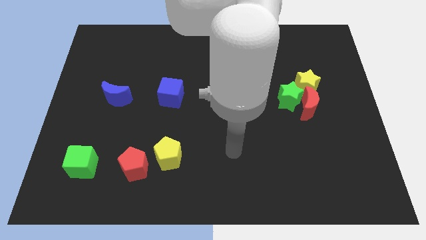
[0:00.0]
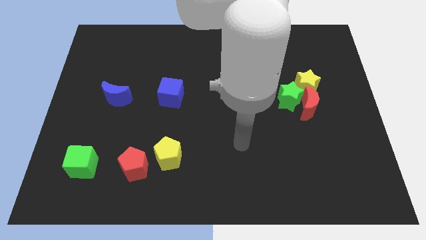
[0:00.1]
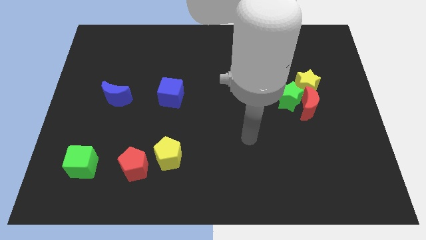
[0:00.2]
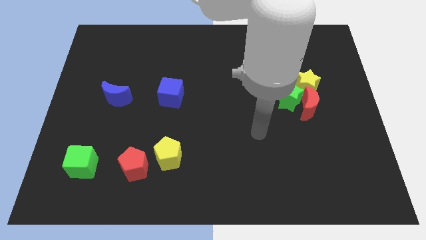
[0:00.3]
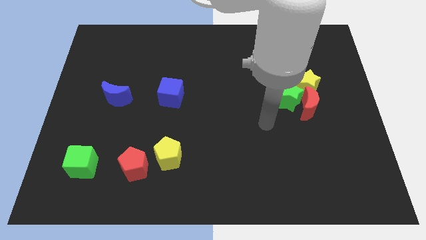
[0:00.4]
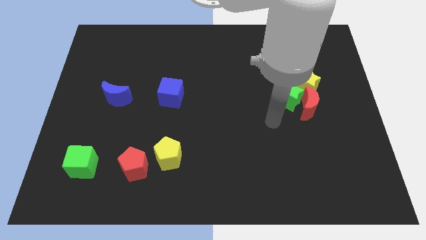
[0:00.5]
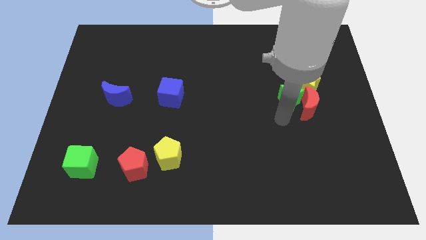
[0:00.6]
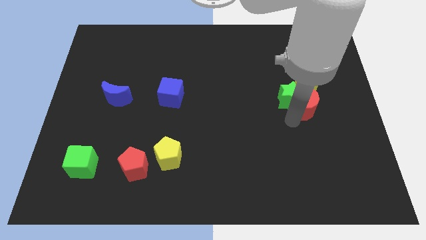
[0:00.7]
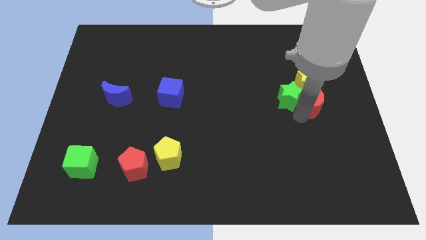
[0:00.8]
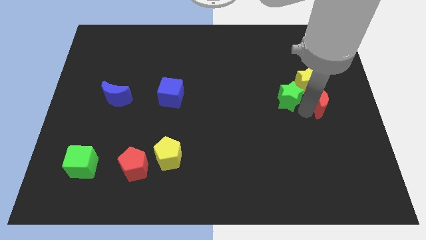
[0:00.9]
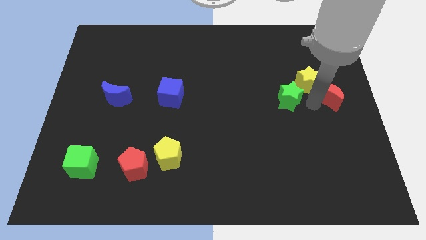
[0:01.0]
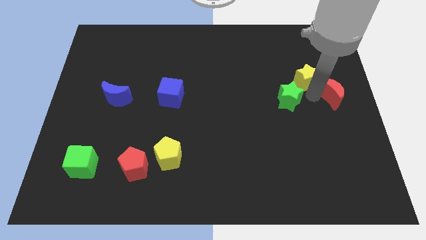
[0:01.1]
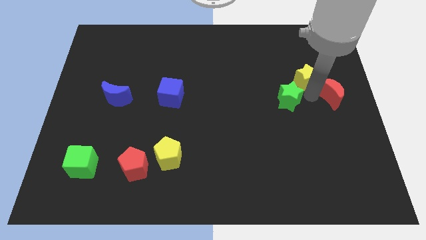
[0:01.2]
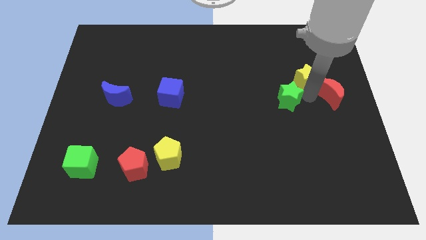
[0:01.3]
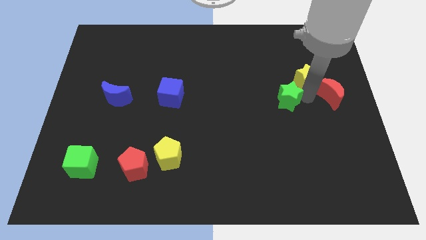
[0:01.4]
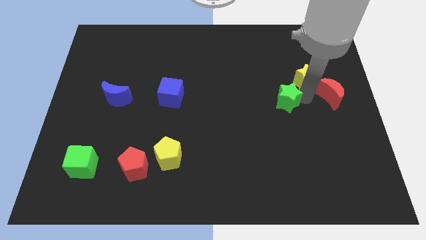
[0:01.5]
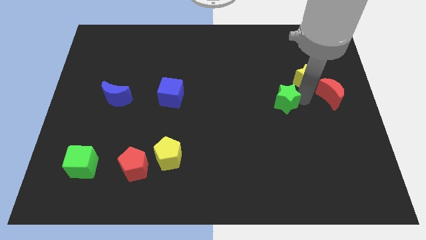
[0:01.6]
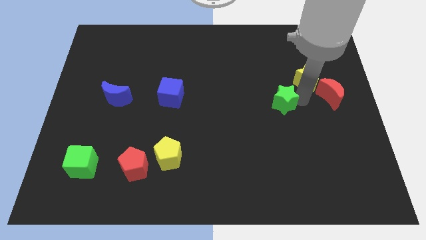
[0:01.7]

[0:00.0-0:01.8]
pull the green star apart from the red moon and yellow star

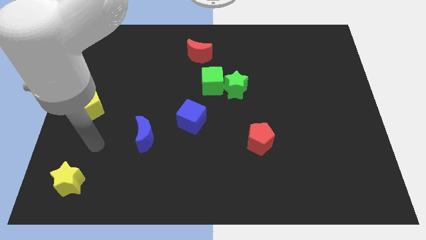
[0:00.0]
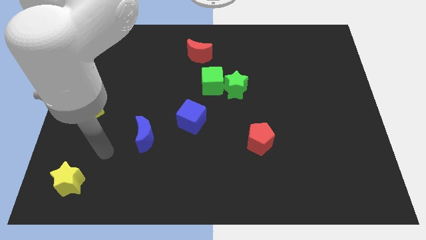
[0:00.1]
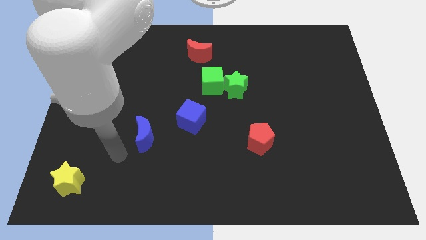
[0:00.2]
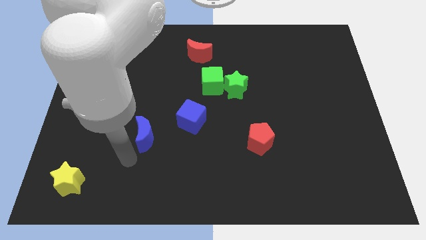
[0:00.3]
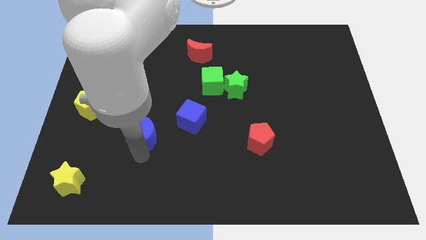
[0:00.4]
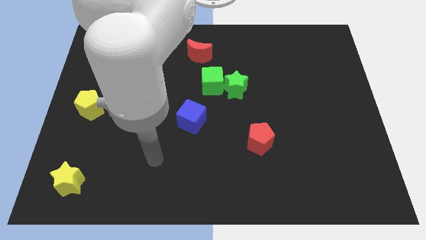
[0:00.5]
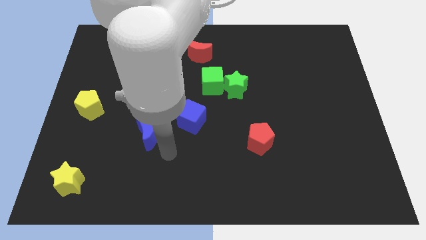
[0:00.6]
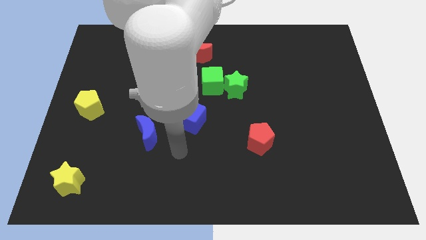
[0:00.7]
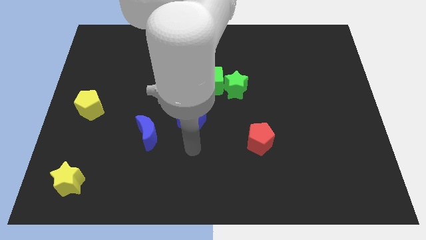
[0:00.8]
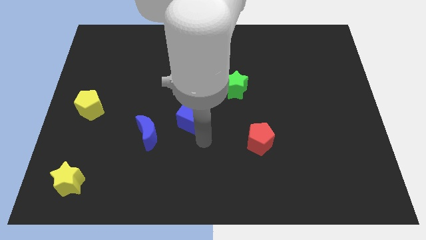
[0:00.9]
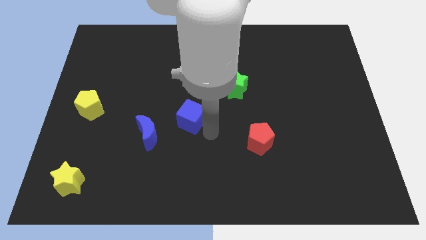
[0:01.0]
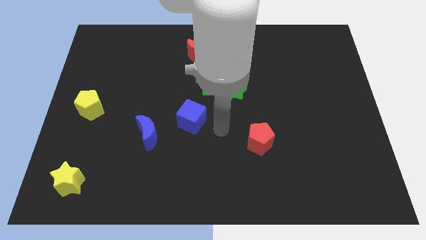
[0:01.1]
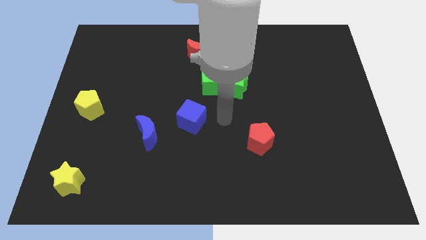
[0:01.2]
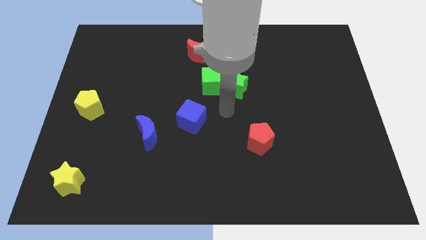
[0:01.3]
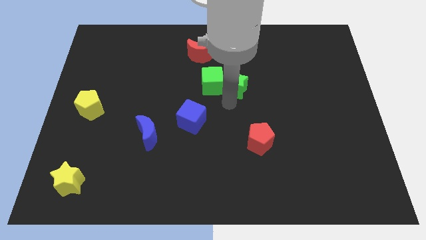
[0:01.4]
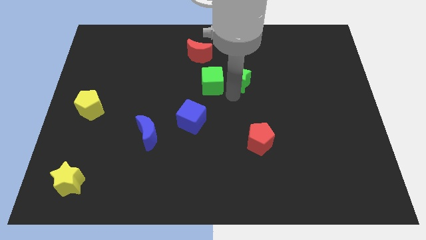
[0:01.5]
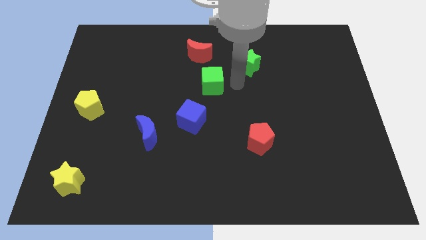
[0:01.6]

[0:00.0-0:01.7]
separate the green cube from the green star

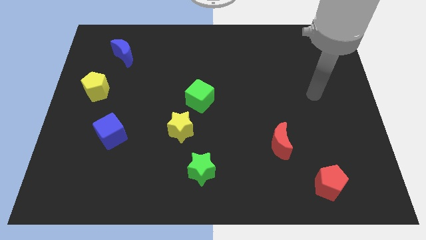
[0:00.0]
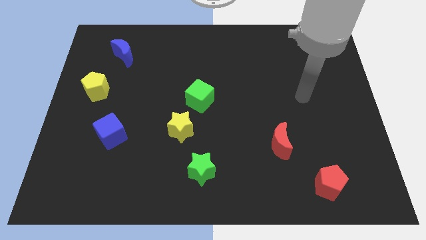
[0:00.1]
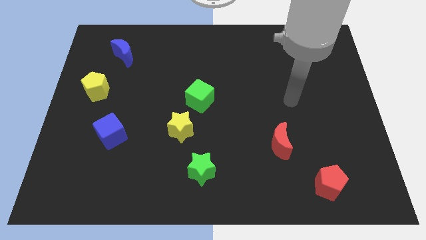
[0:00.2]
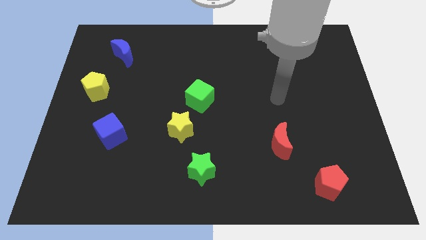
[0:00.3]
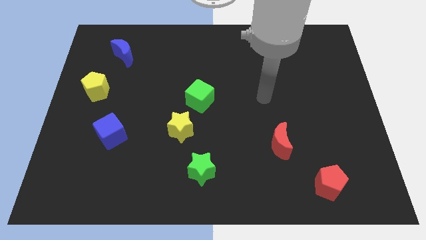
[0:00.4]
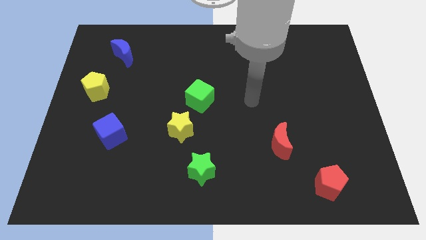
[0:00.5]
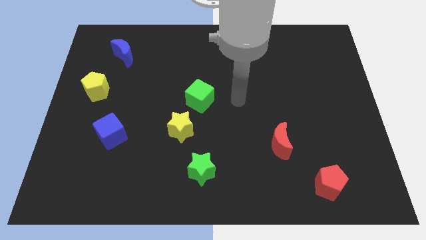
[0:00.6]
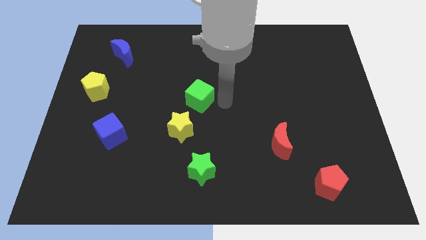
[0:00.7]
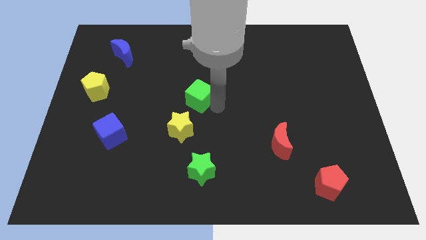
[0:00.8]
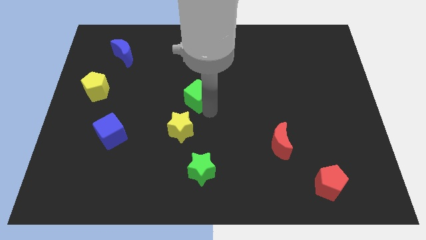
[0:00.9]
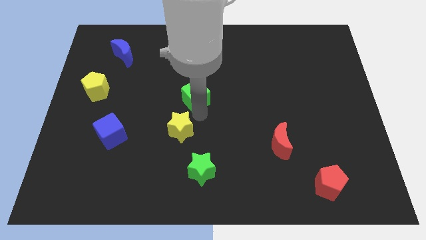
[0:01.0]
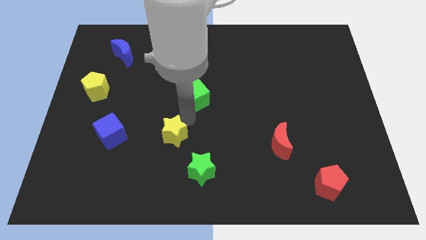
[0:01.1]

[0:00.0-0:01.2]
separate the green cube from the yellow star

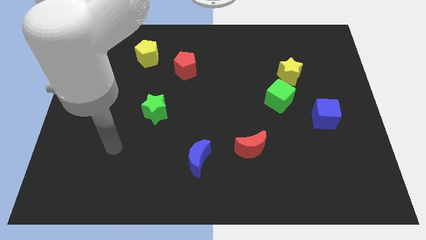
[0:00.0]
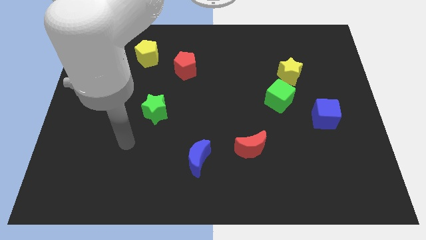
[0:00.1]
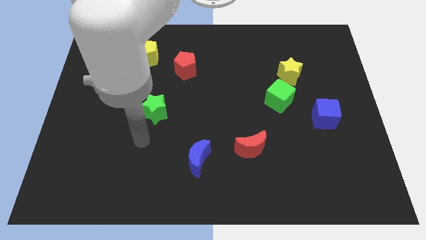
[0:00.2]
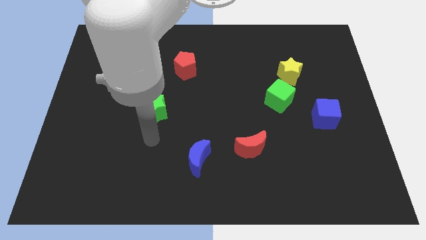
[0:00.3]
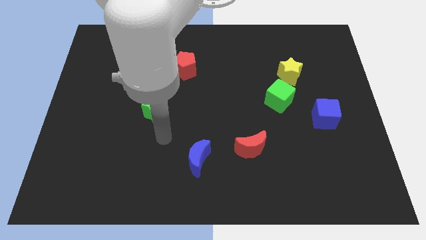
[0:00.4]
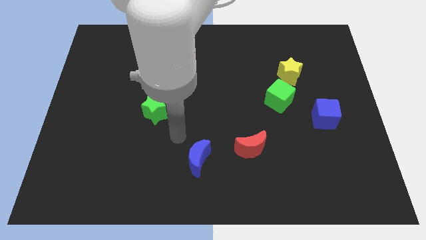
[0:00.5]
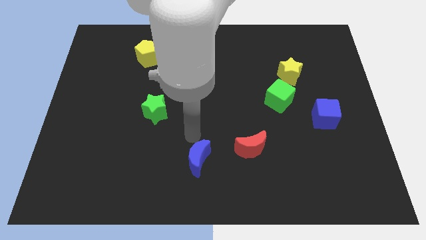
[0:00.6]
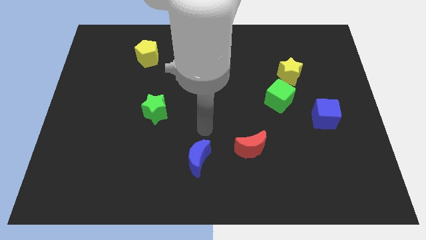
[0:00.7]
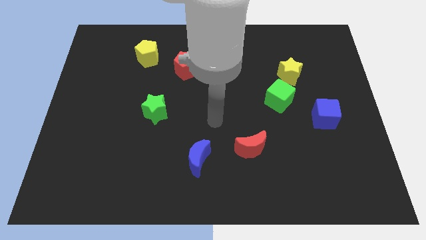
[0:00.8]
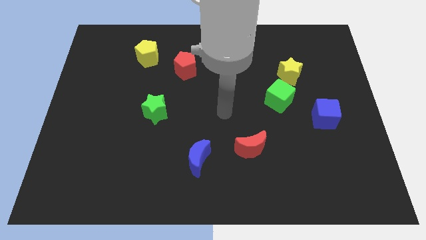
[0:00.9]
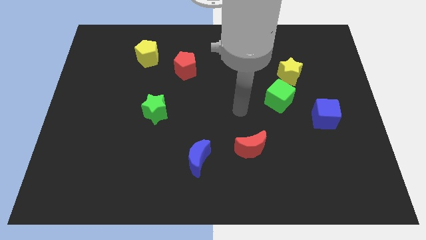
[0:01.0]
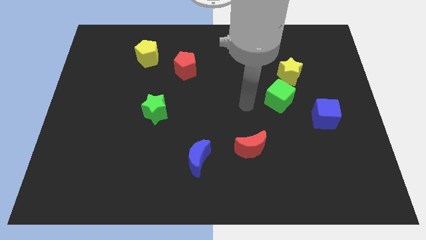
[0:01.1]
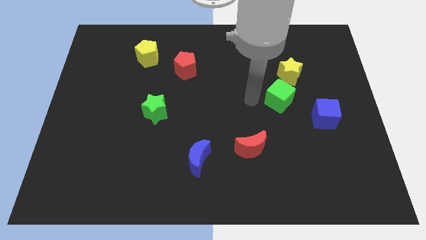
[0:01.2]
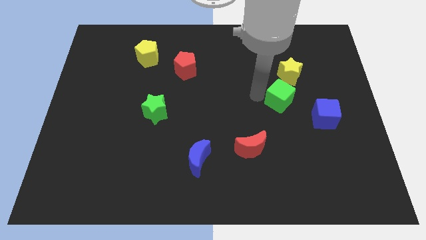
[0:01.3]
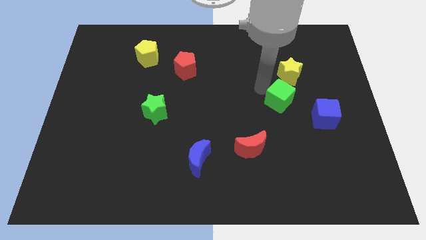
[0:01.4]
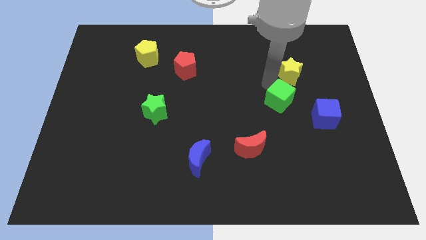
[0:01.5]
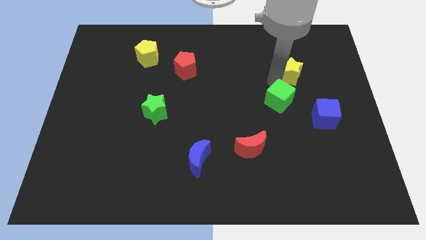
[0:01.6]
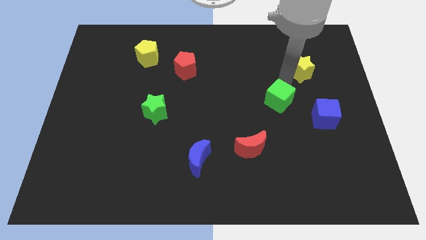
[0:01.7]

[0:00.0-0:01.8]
move the green cube away from the yellow star

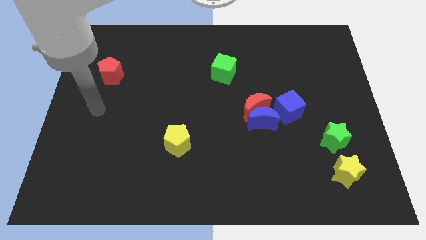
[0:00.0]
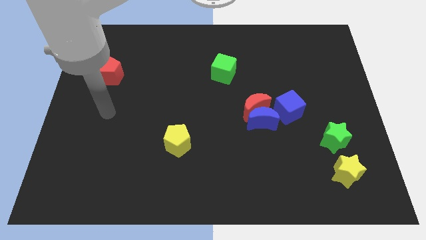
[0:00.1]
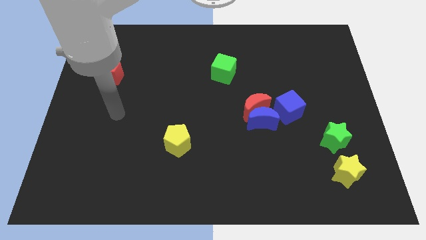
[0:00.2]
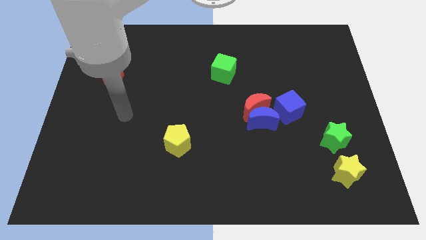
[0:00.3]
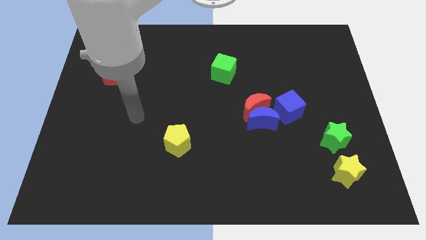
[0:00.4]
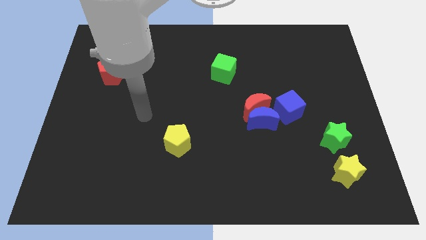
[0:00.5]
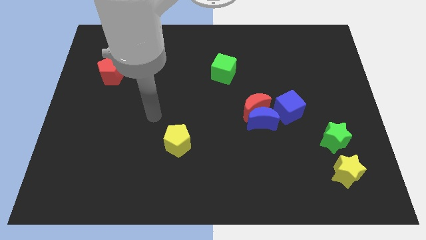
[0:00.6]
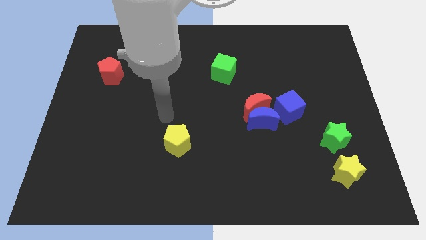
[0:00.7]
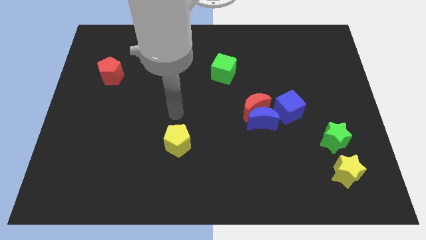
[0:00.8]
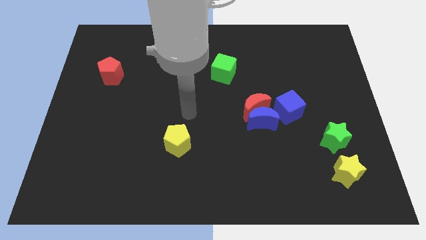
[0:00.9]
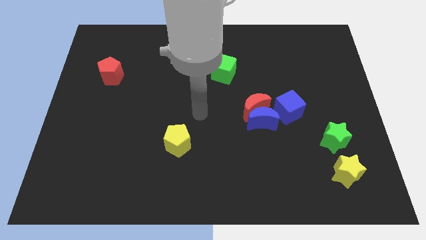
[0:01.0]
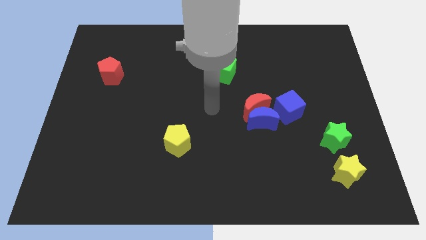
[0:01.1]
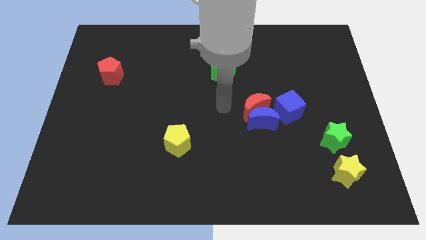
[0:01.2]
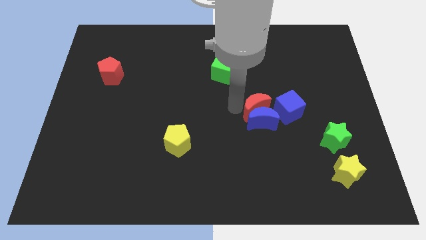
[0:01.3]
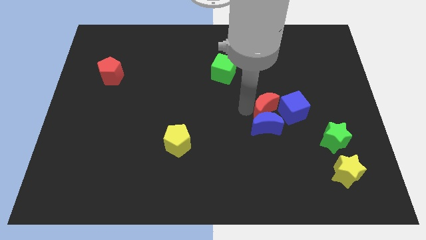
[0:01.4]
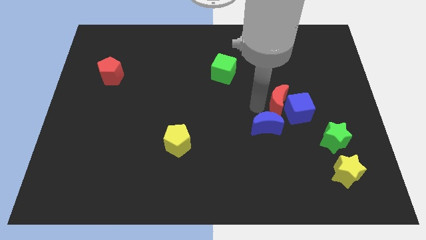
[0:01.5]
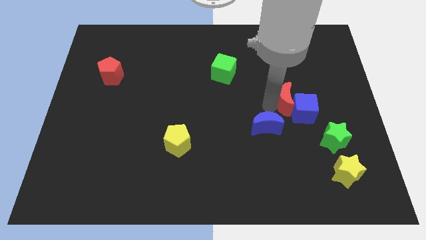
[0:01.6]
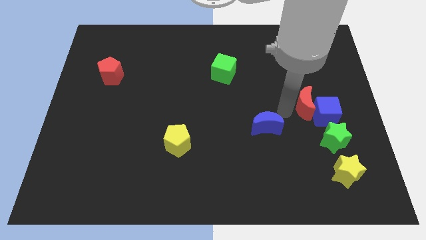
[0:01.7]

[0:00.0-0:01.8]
move the blue moon away from the red moon and blue cube

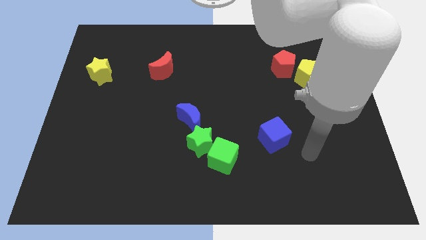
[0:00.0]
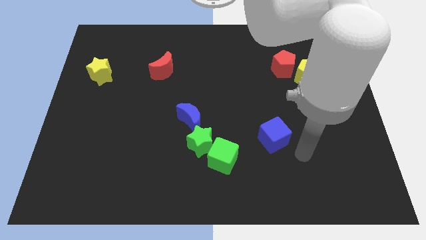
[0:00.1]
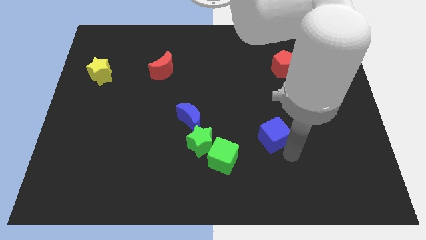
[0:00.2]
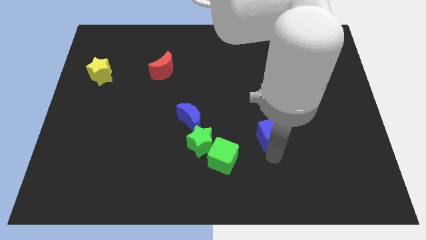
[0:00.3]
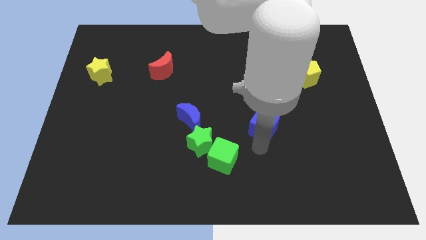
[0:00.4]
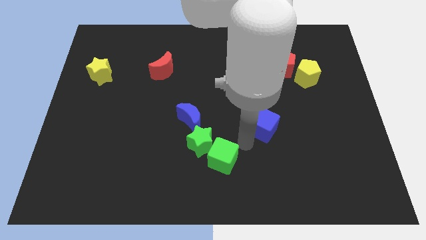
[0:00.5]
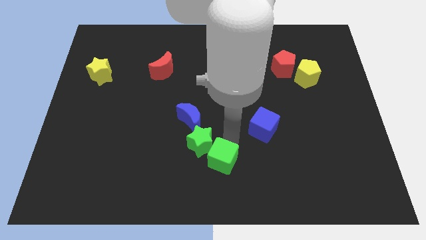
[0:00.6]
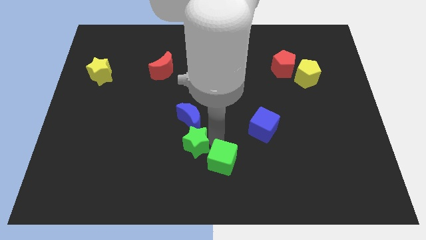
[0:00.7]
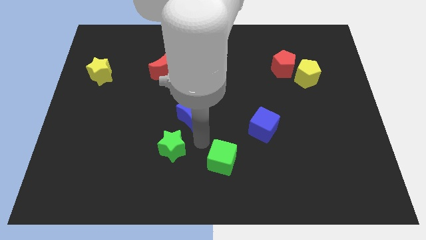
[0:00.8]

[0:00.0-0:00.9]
pull the green cube apart from the green star

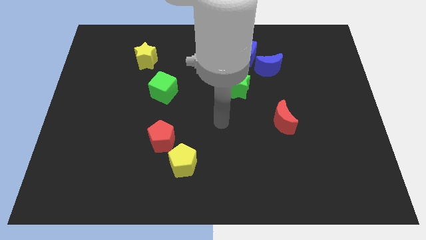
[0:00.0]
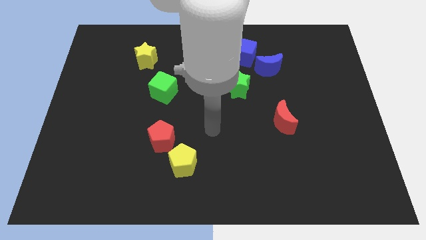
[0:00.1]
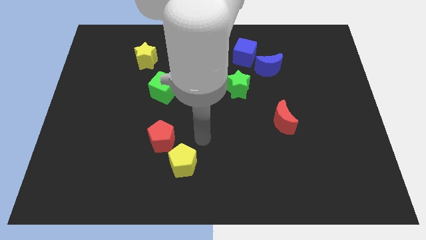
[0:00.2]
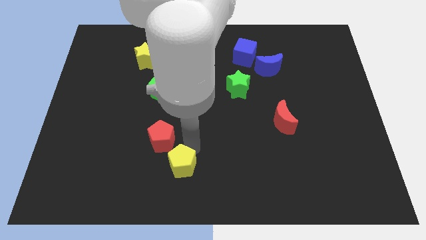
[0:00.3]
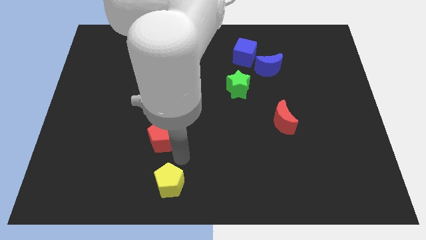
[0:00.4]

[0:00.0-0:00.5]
move the red pentagon away from the yellow pentagon
